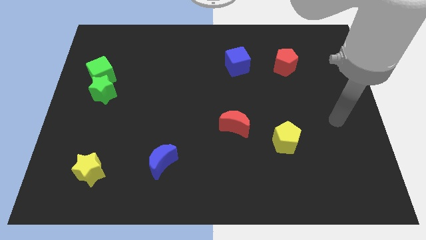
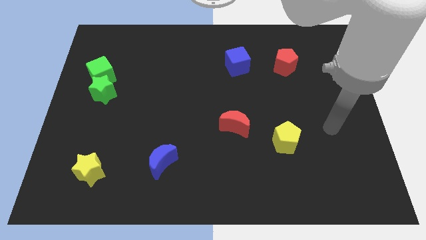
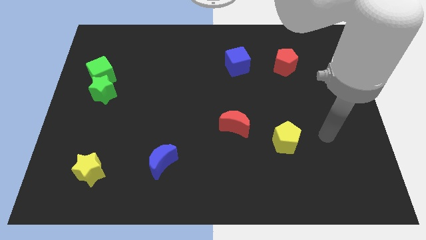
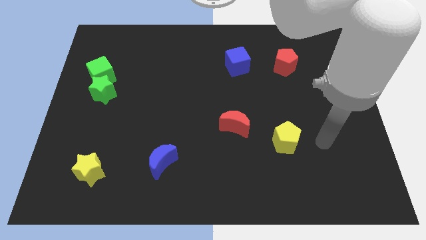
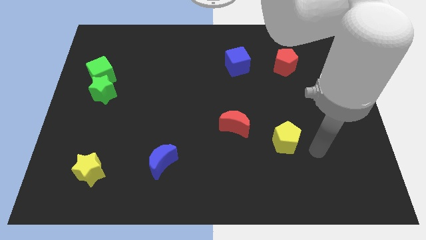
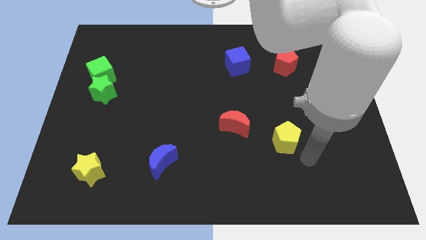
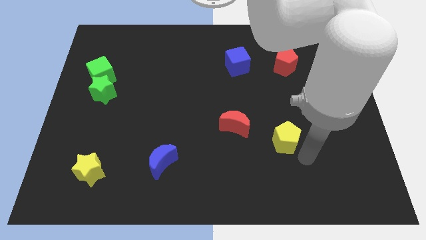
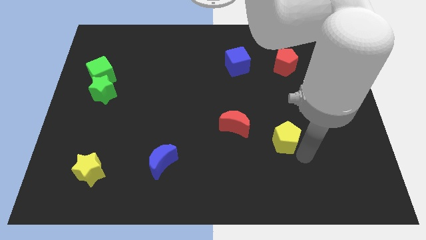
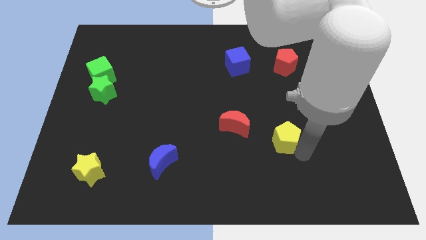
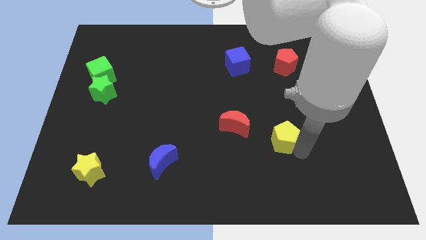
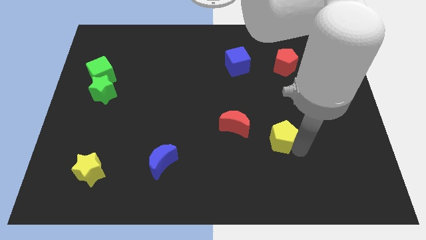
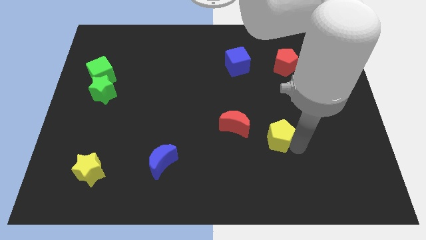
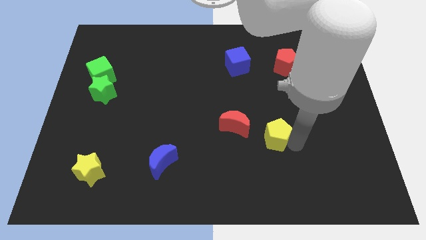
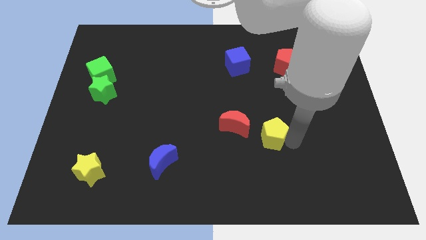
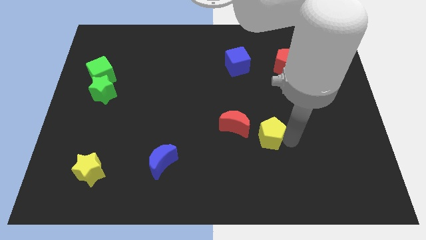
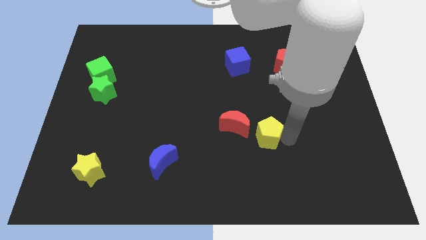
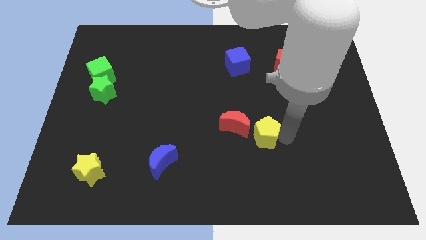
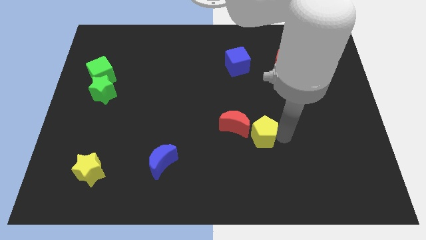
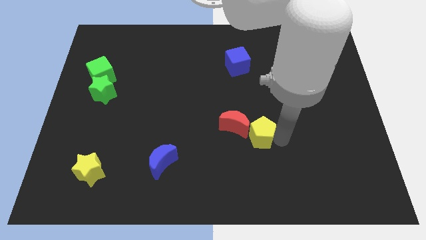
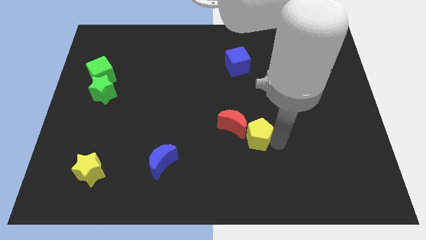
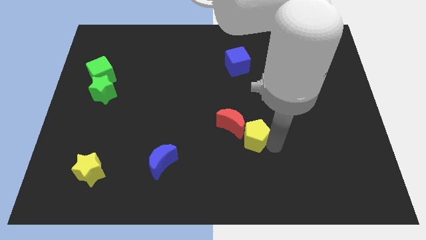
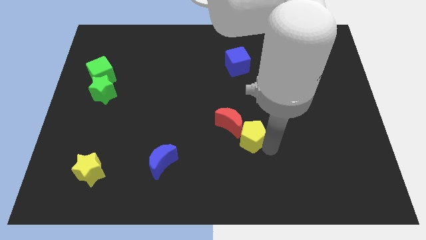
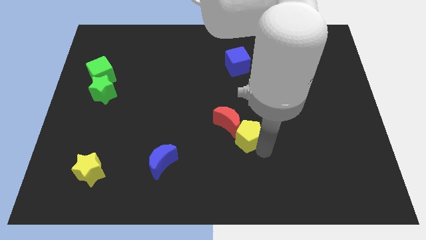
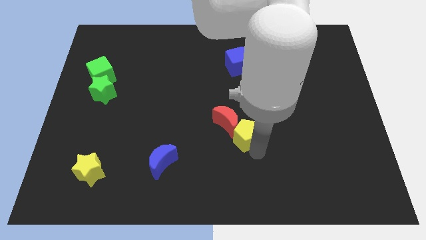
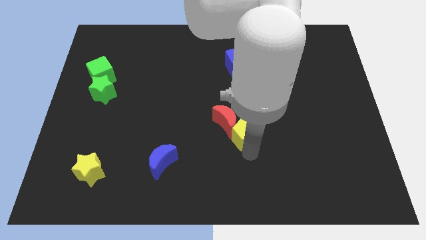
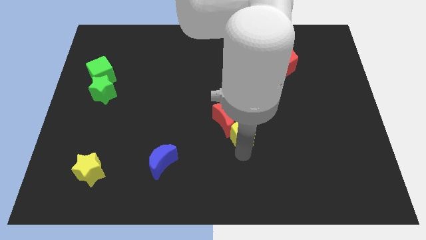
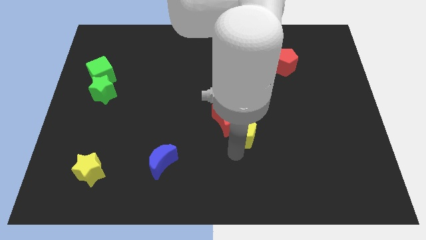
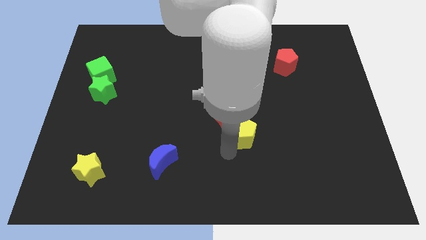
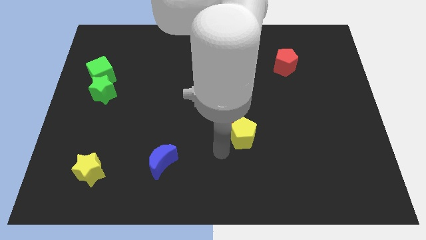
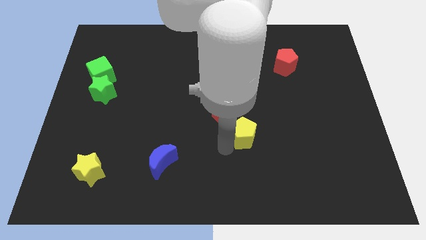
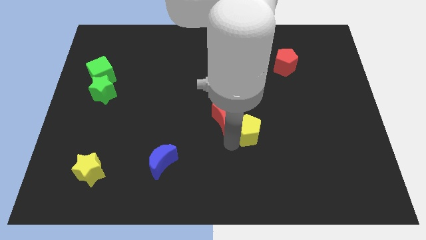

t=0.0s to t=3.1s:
slide the yellow pentagon somewhat diagonally up and left

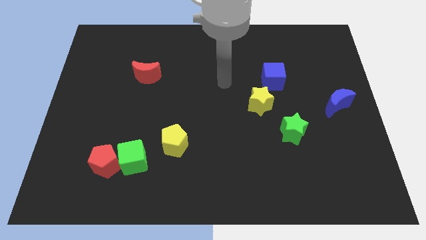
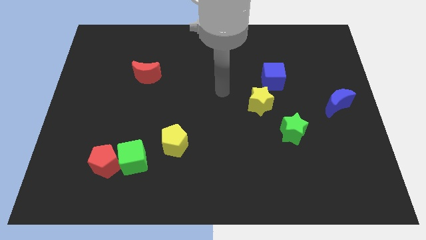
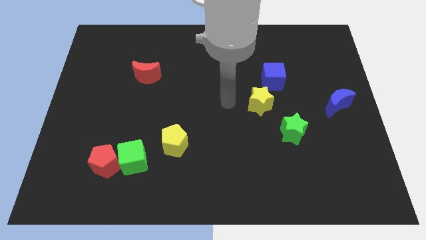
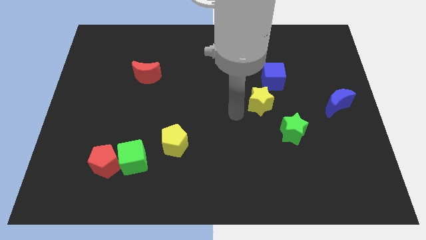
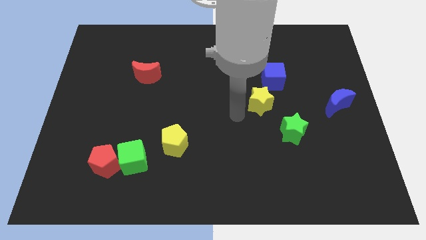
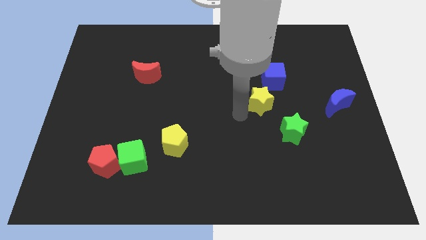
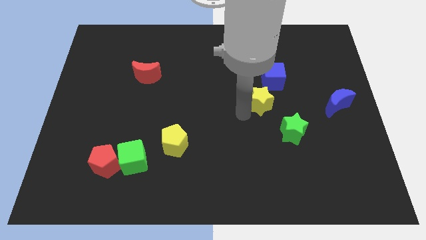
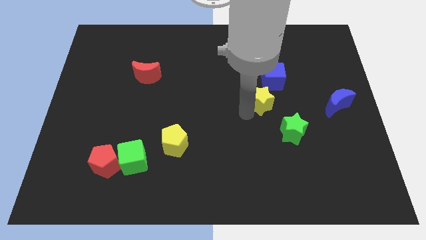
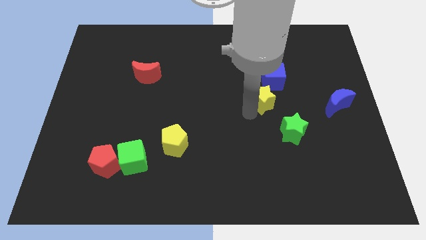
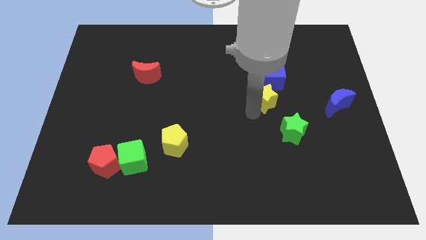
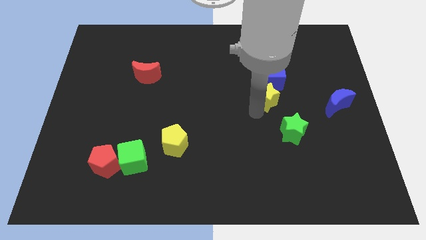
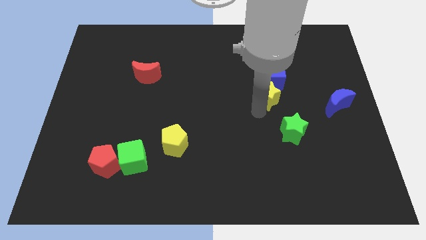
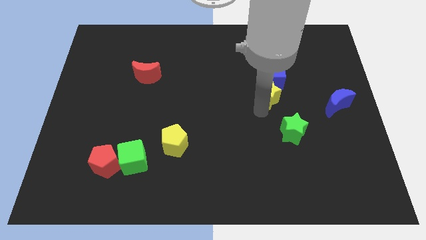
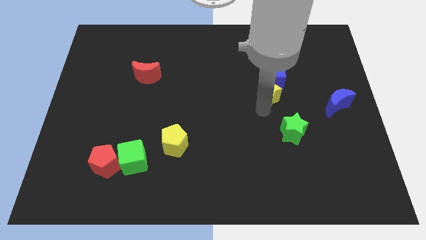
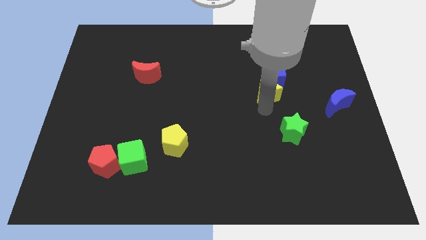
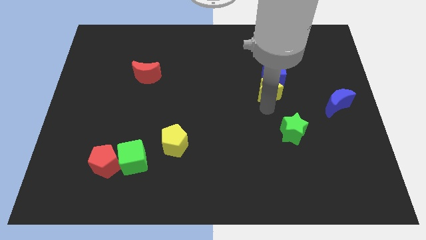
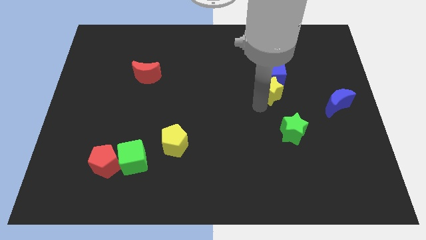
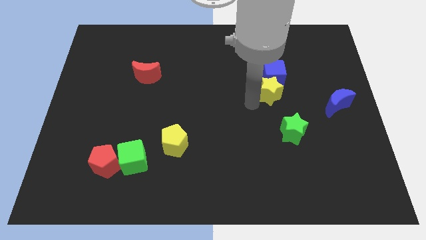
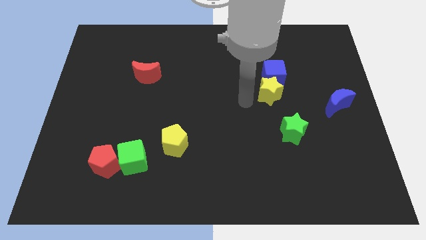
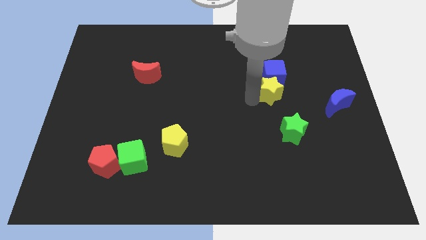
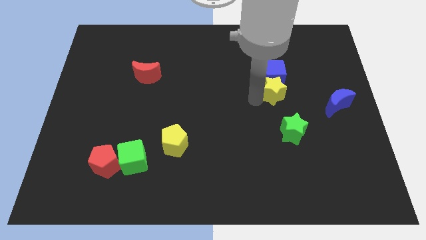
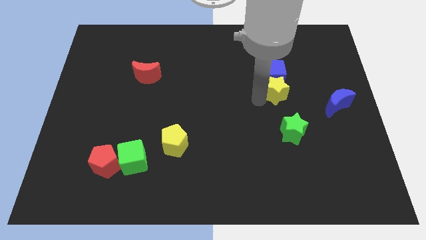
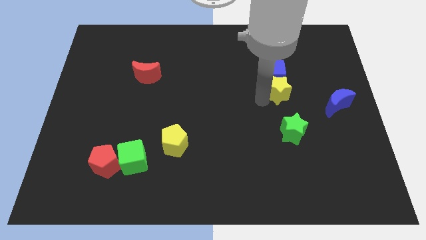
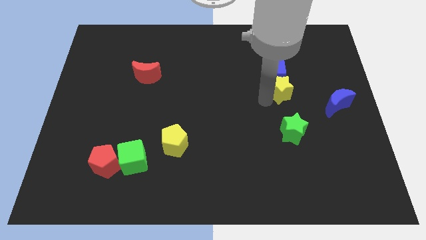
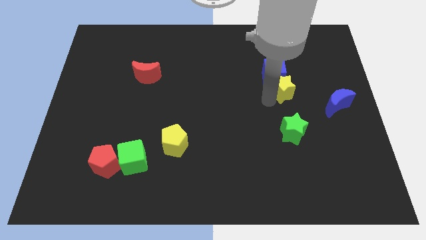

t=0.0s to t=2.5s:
slide the yellow star upwards and then right somewhat

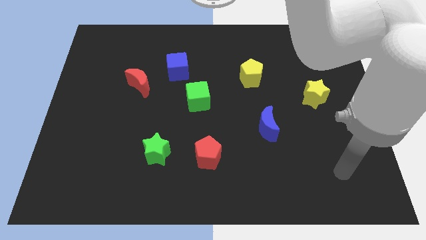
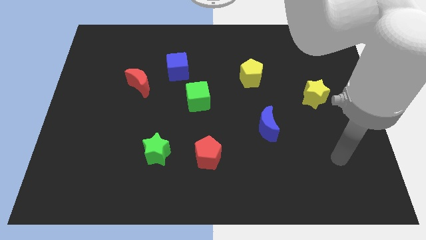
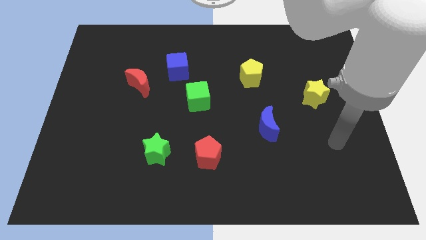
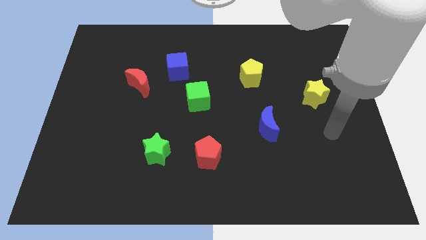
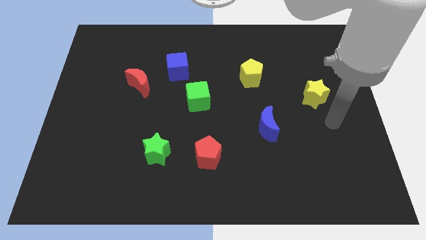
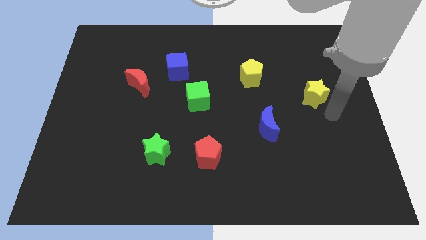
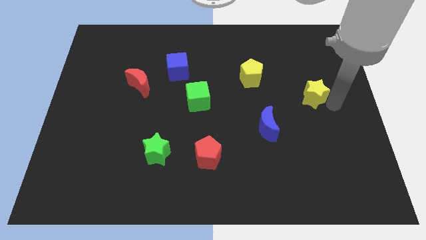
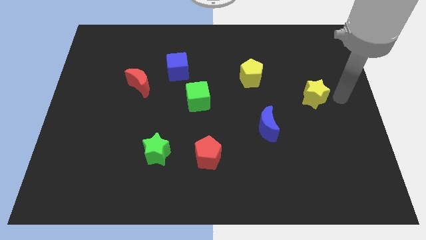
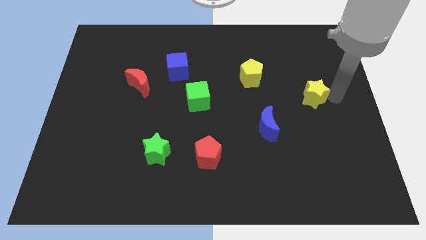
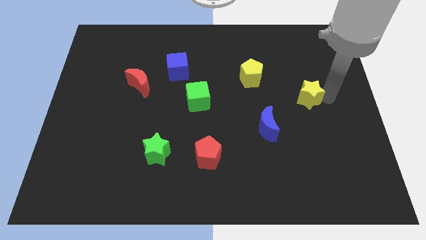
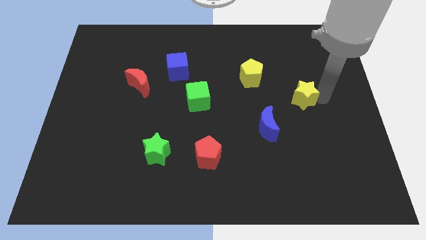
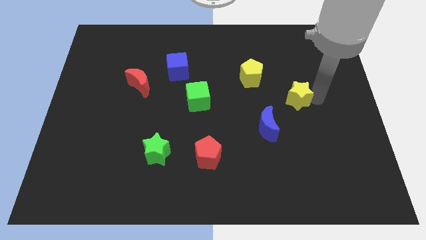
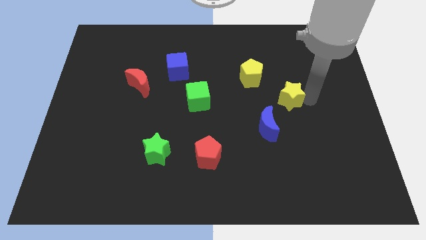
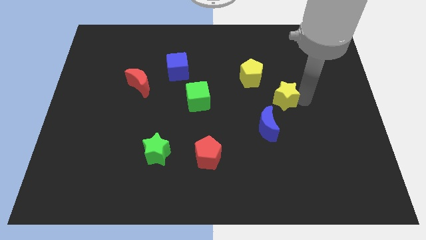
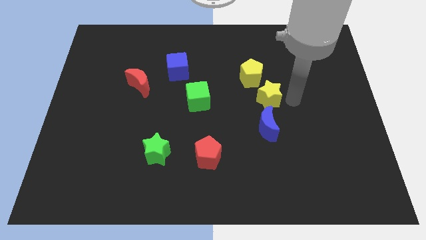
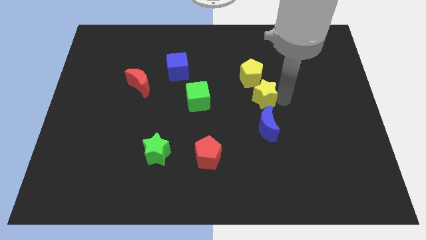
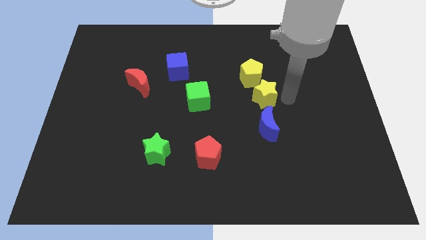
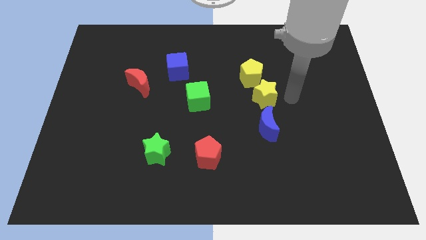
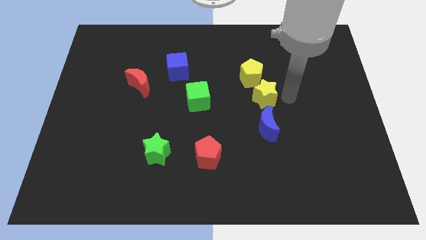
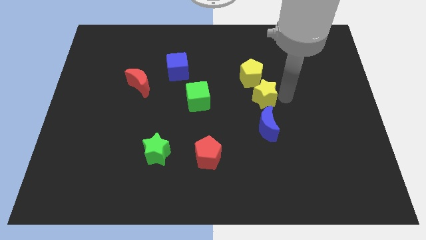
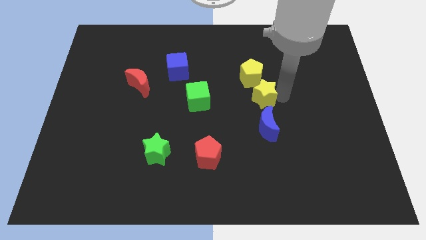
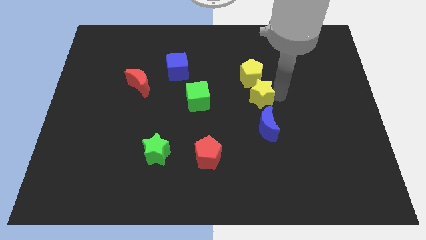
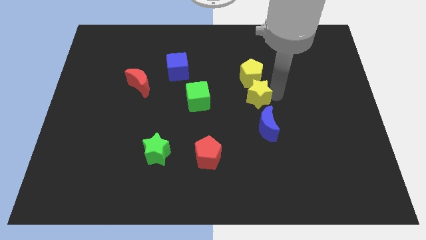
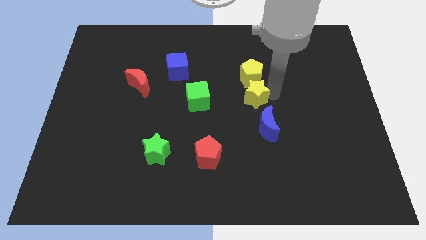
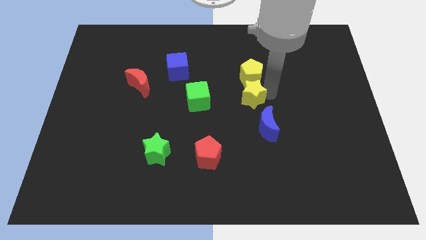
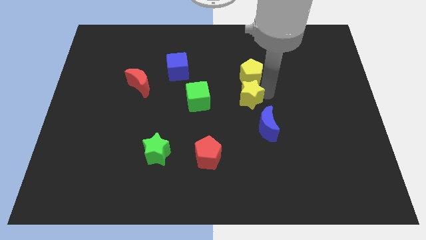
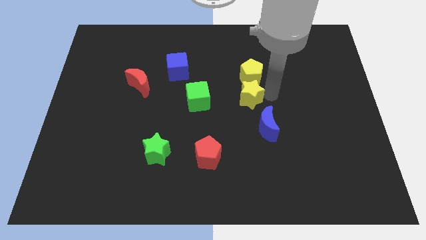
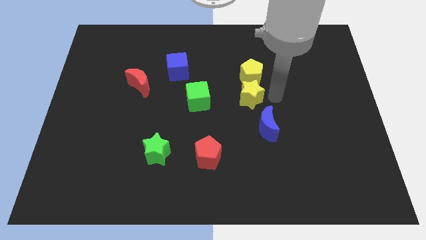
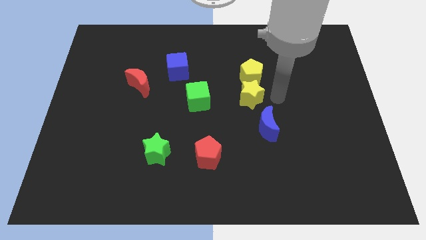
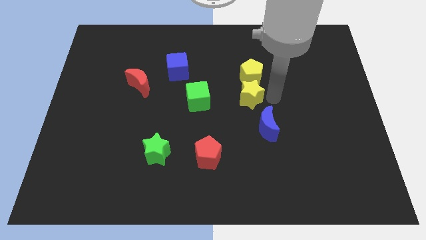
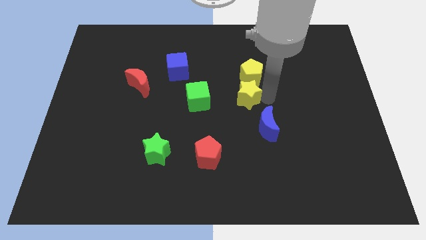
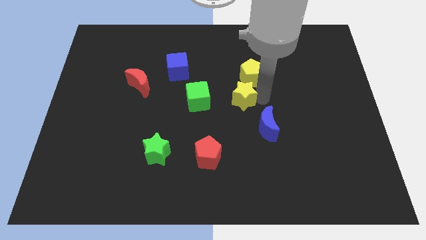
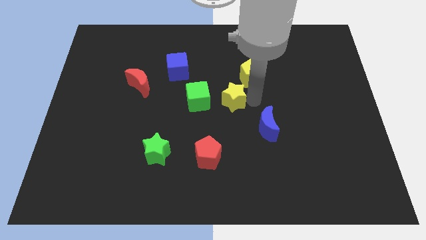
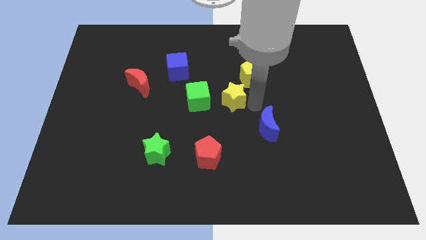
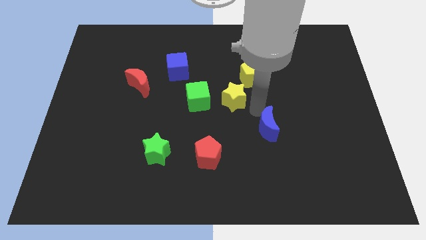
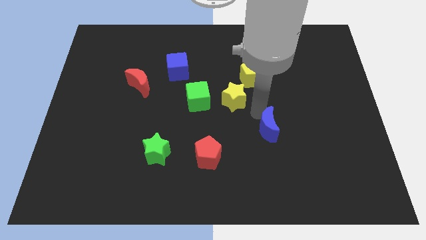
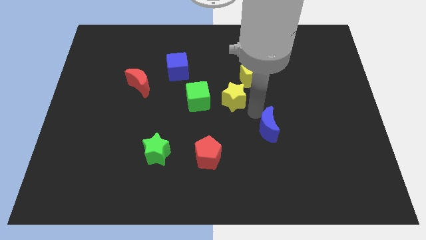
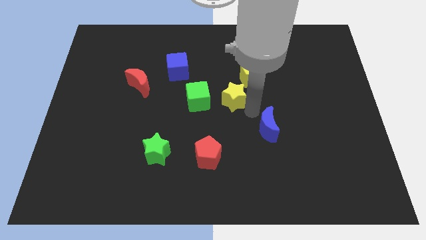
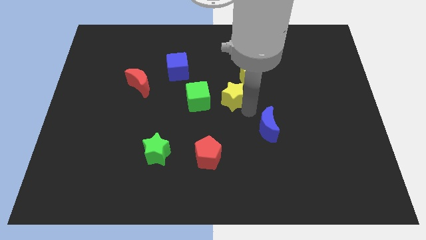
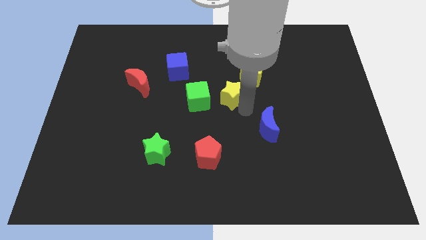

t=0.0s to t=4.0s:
move the yellow star to the left
